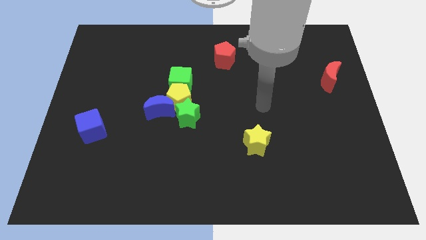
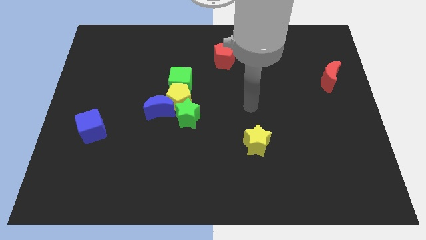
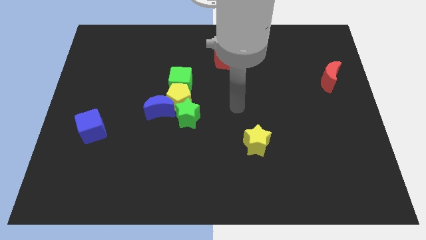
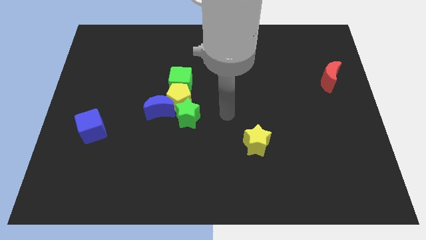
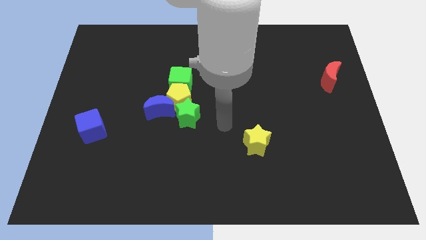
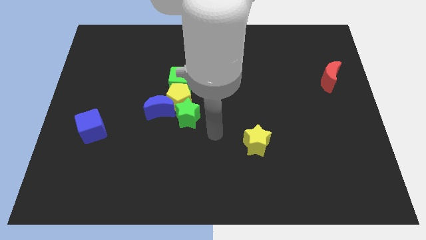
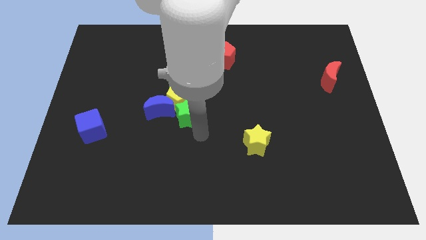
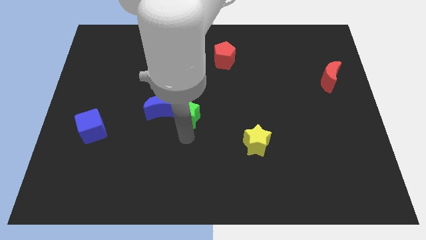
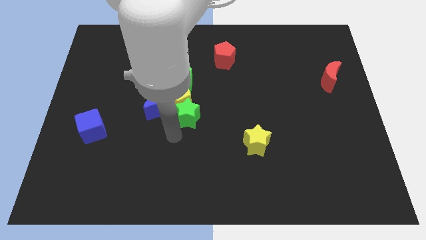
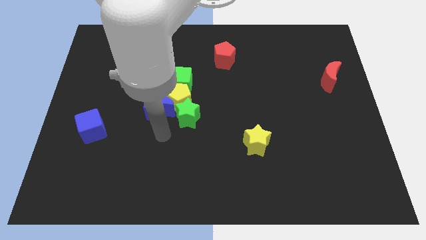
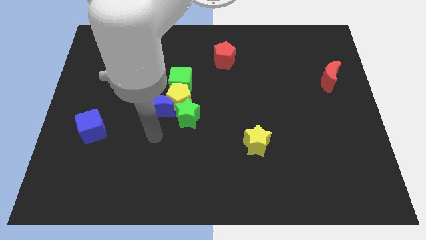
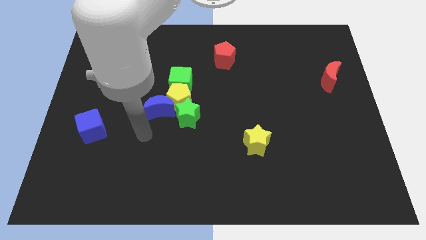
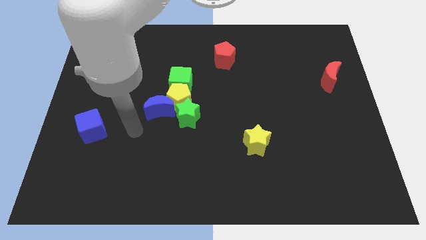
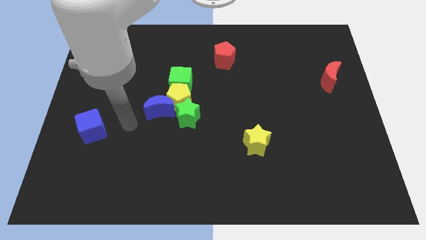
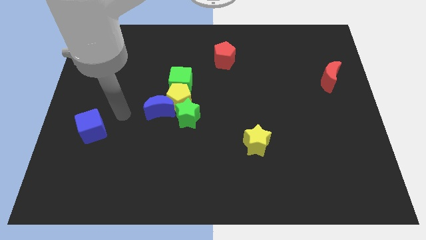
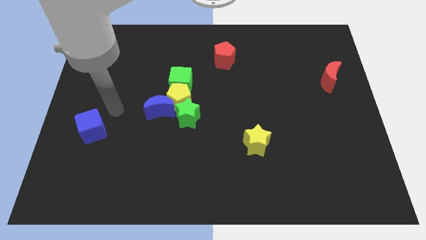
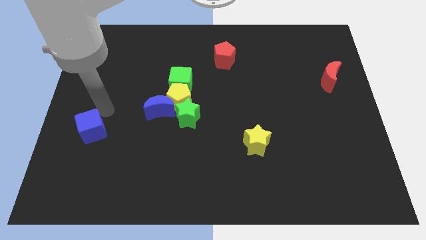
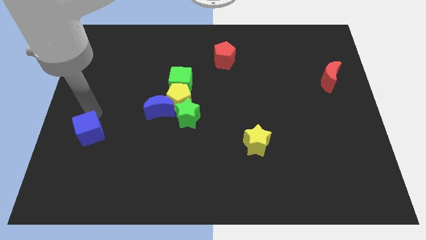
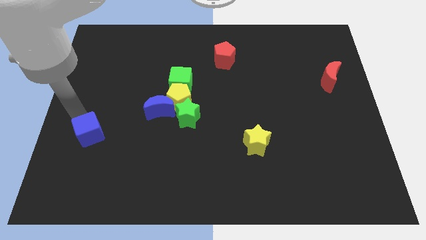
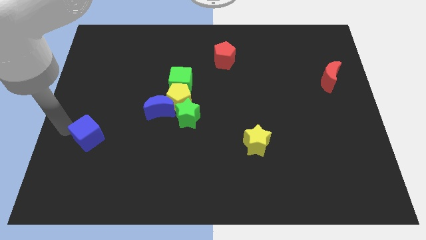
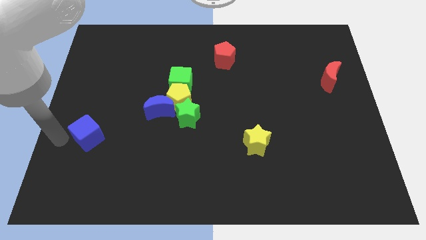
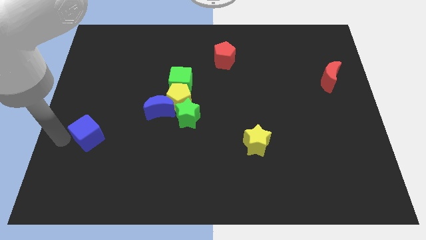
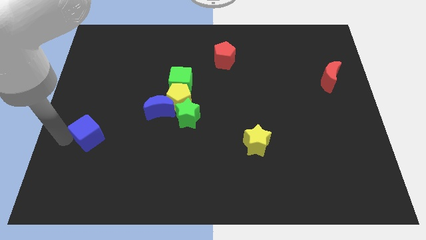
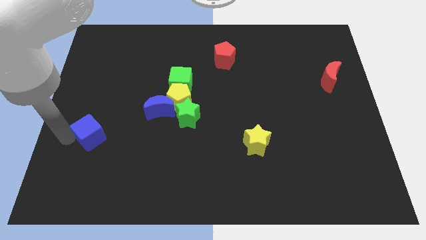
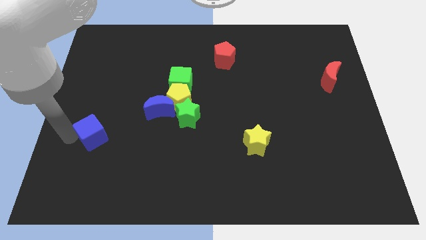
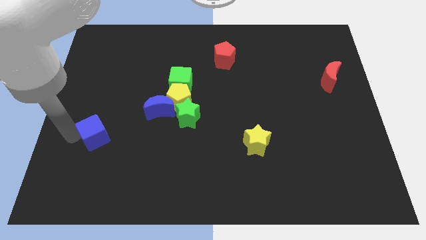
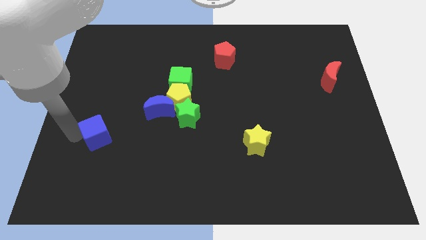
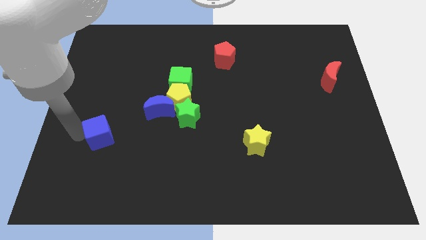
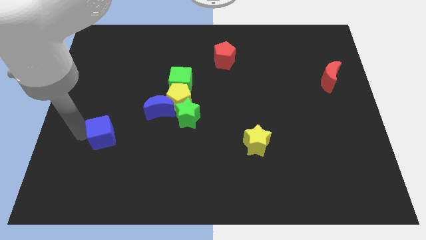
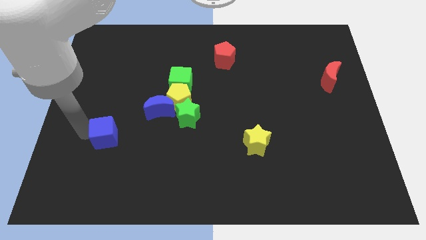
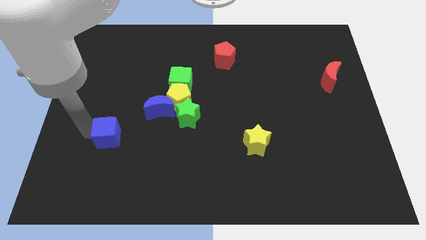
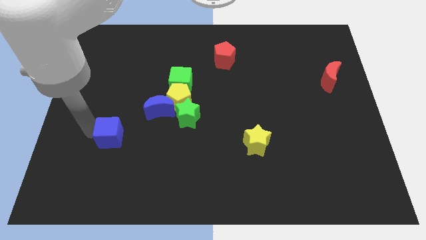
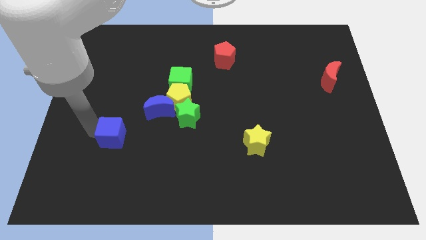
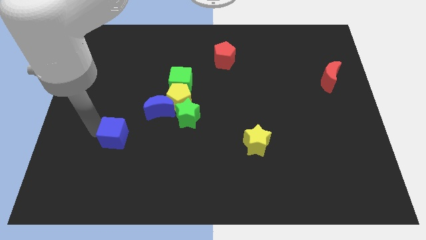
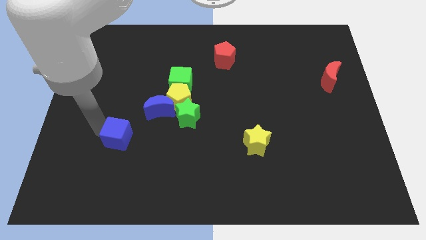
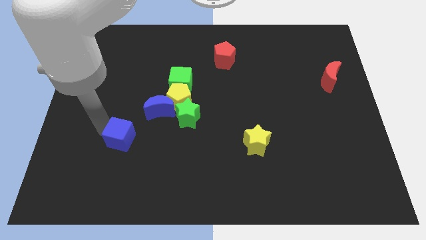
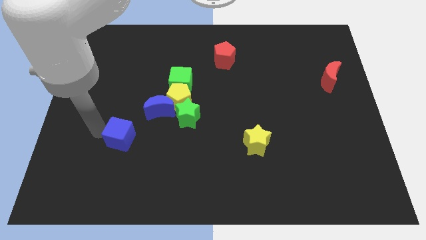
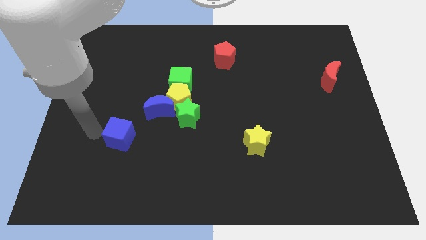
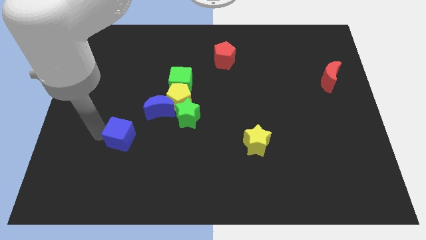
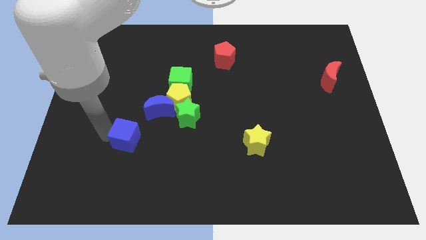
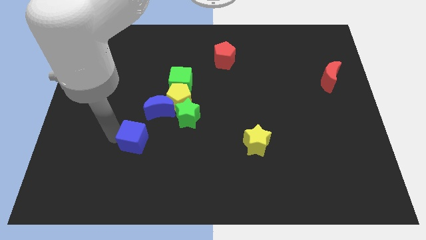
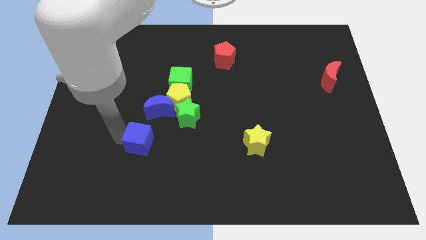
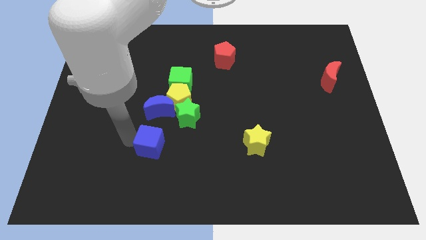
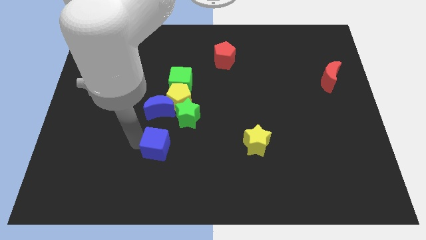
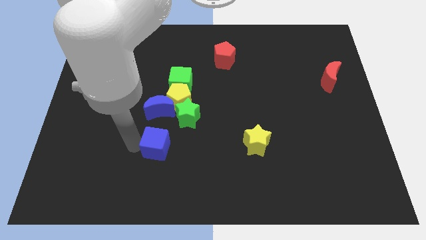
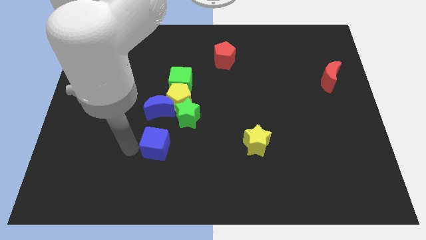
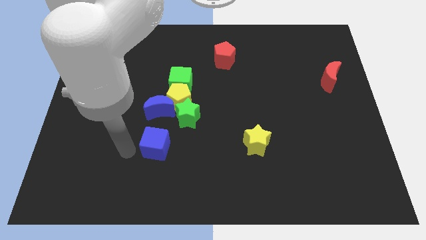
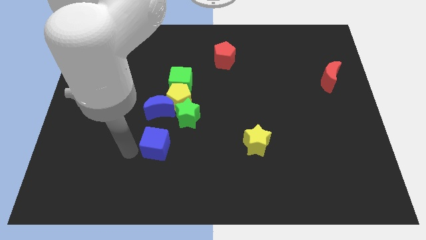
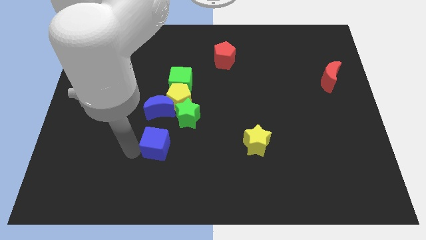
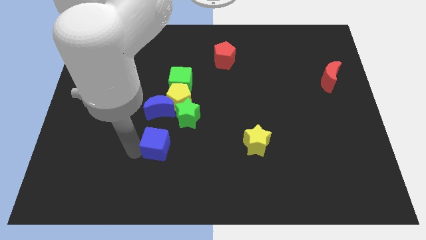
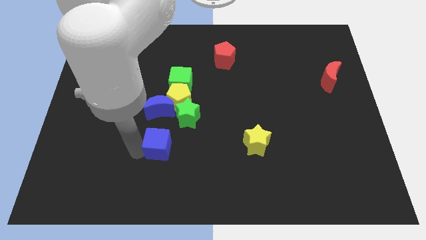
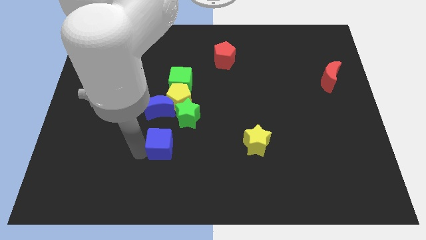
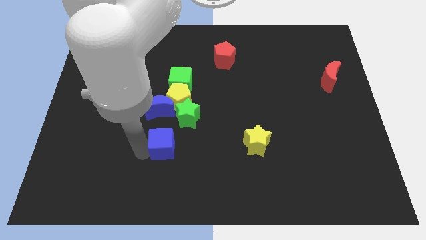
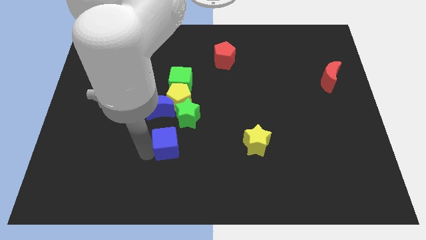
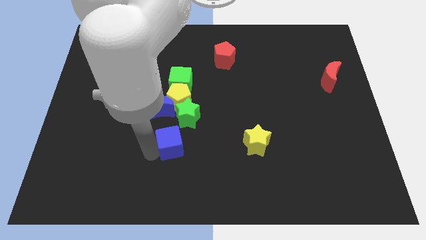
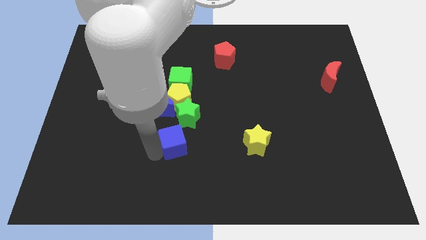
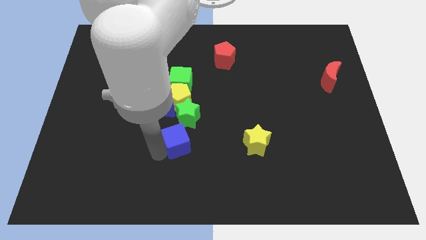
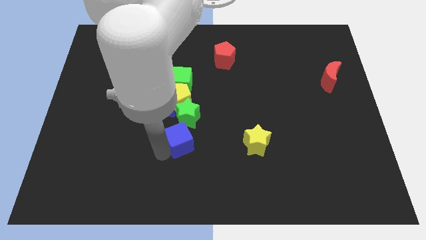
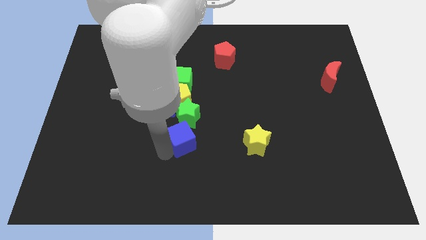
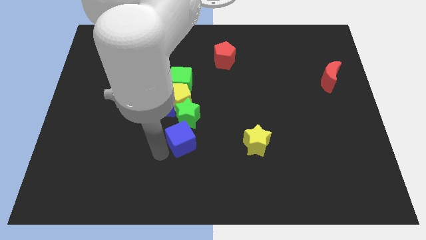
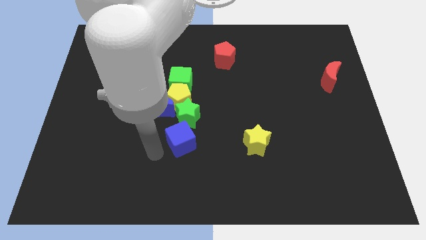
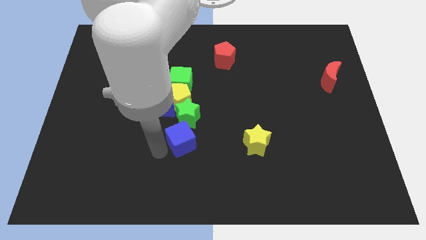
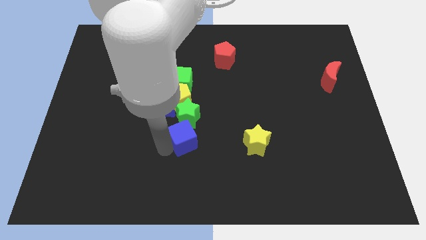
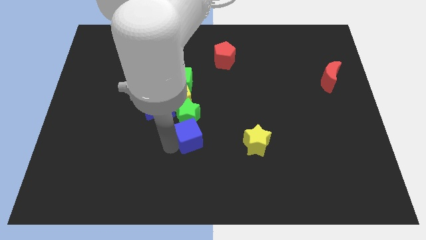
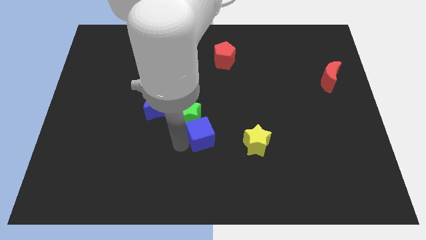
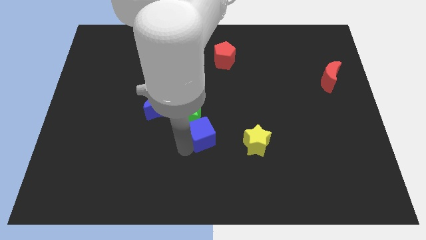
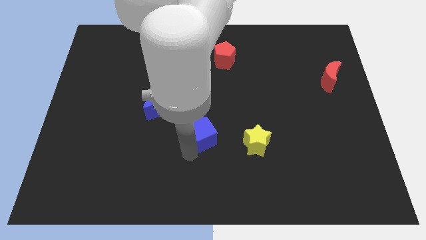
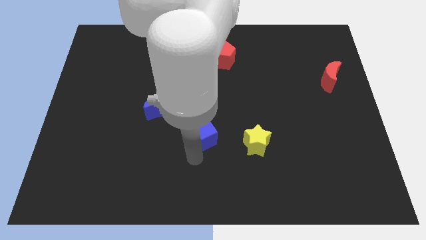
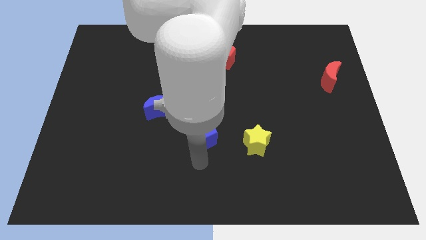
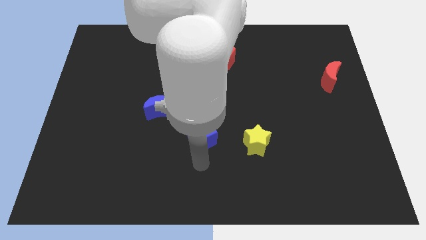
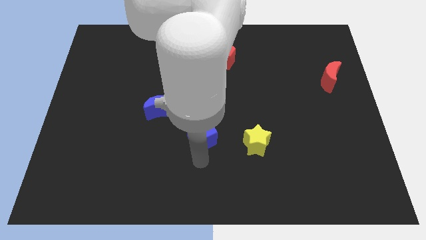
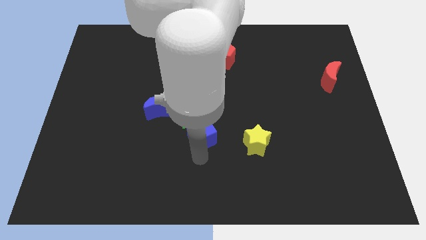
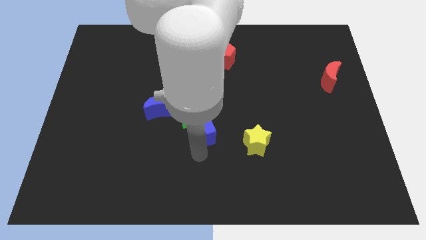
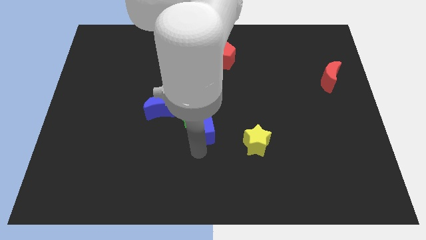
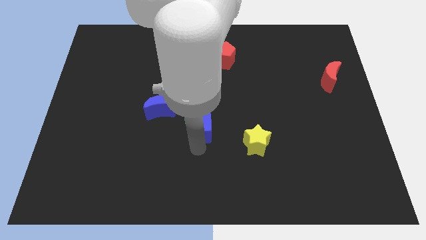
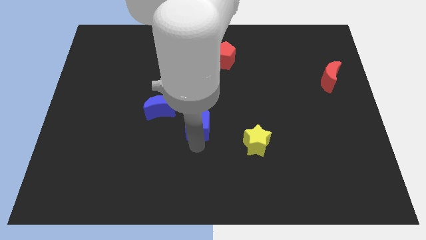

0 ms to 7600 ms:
push the blue cube just right of the blue moon
